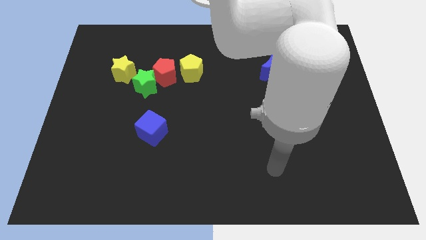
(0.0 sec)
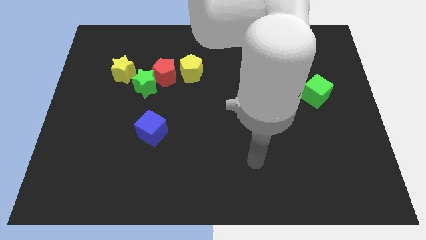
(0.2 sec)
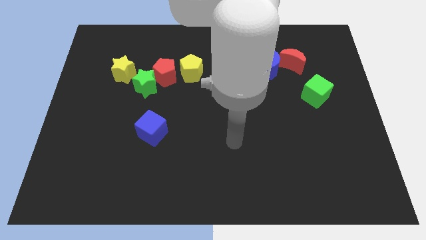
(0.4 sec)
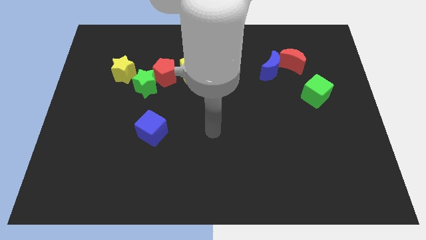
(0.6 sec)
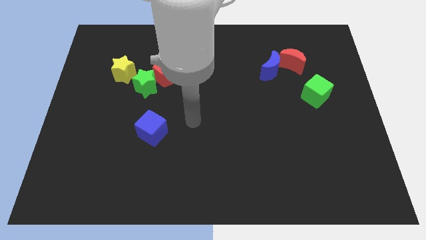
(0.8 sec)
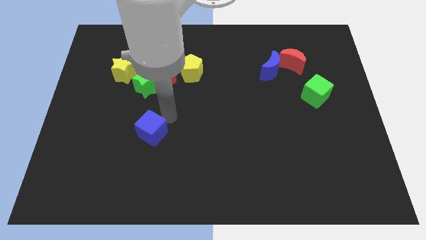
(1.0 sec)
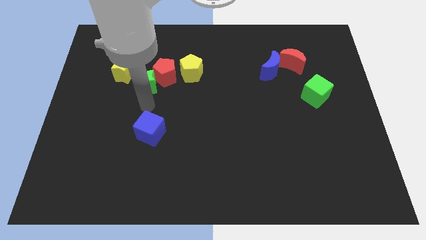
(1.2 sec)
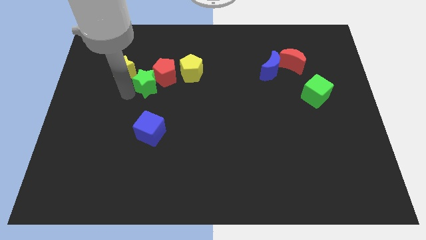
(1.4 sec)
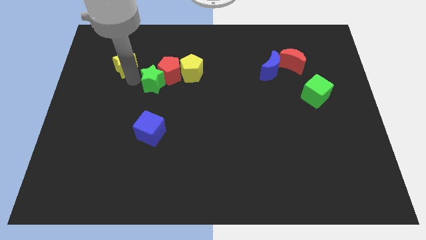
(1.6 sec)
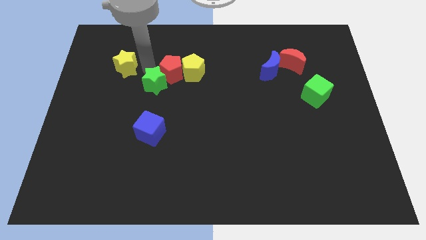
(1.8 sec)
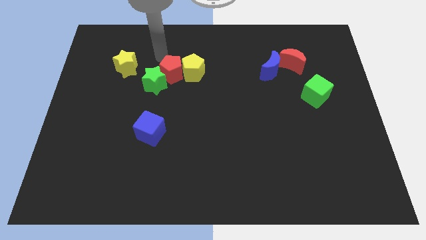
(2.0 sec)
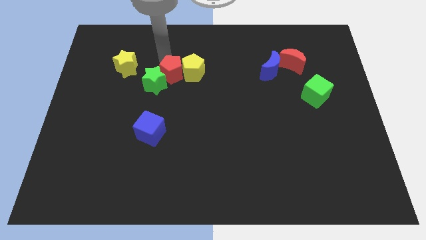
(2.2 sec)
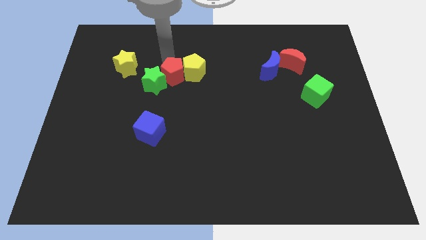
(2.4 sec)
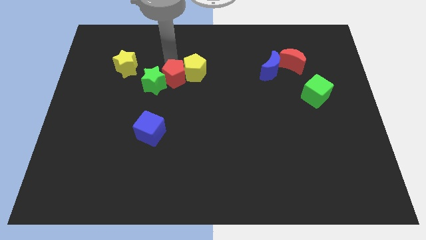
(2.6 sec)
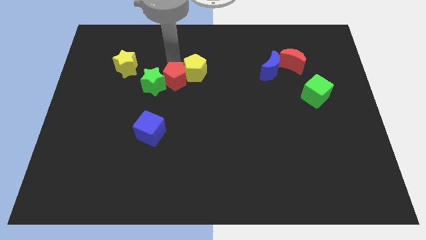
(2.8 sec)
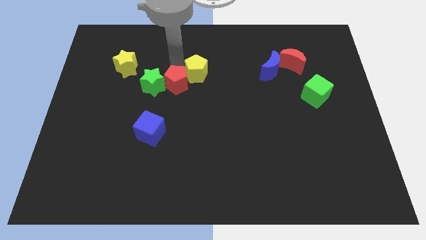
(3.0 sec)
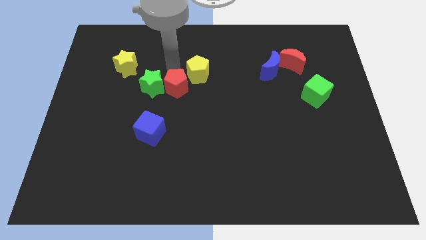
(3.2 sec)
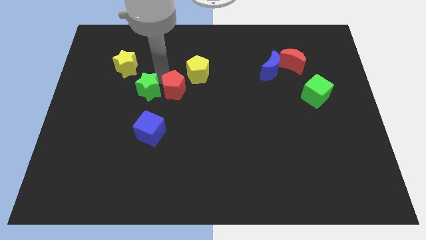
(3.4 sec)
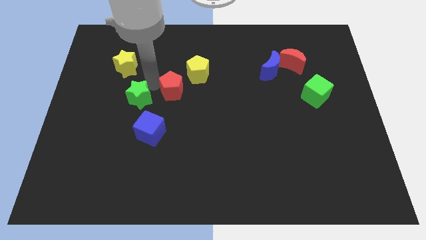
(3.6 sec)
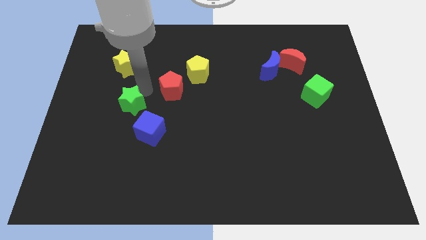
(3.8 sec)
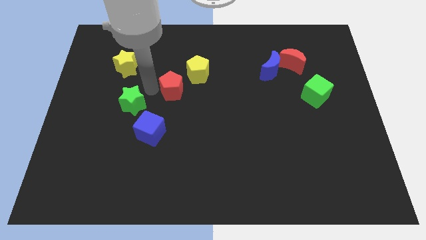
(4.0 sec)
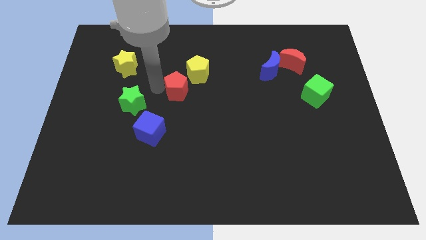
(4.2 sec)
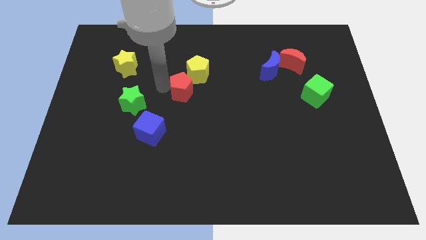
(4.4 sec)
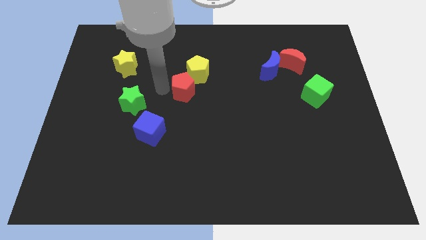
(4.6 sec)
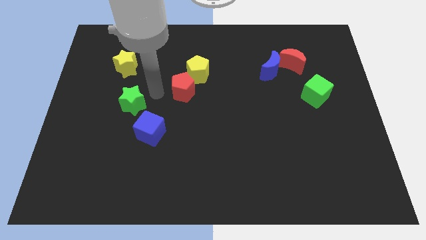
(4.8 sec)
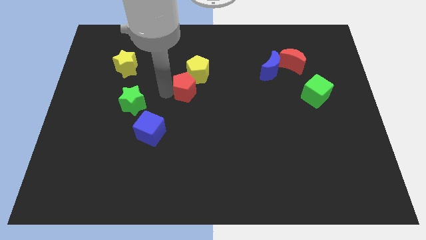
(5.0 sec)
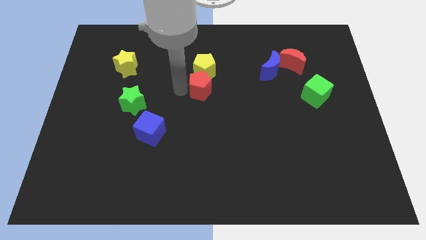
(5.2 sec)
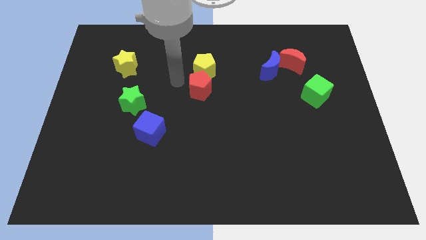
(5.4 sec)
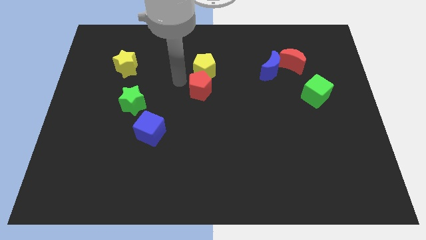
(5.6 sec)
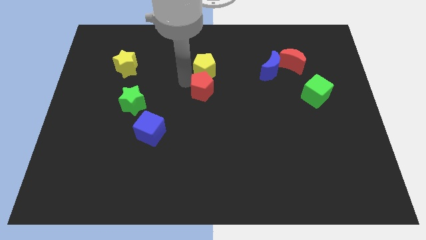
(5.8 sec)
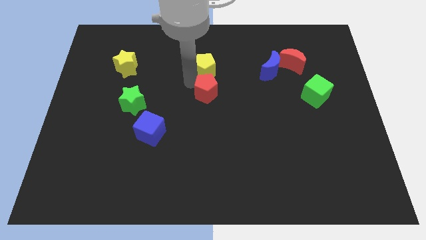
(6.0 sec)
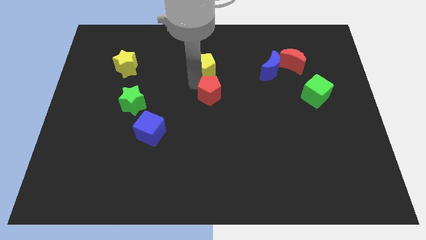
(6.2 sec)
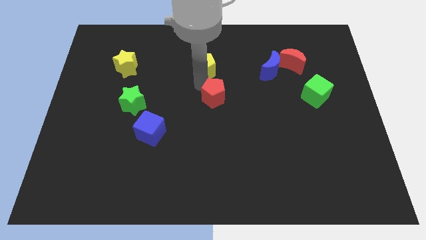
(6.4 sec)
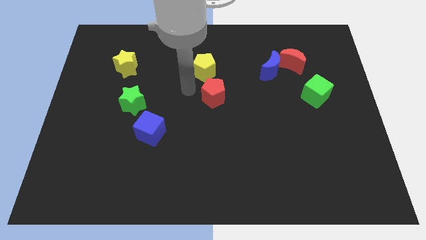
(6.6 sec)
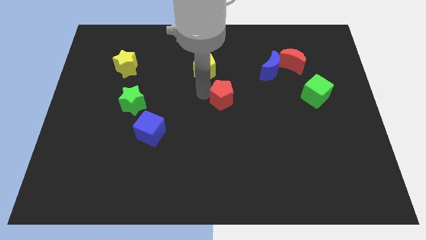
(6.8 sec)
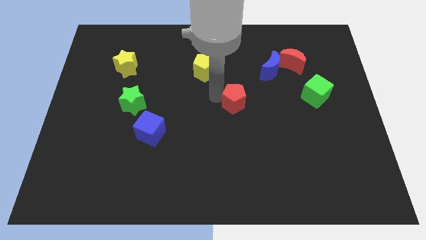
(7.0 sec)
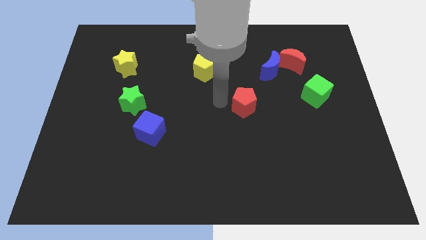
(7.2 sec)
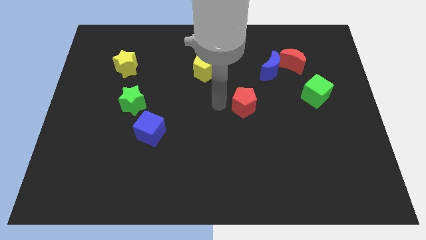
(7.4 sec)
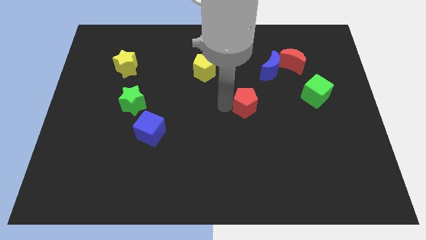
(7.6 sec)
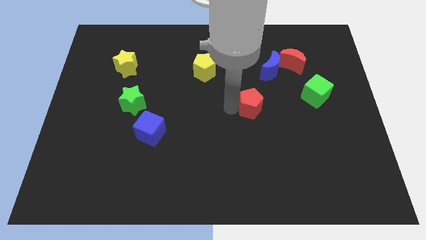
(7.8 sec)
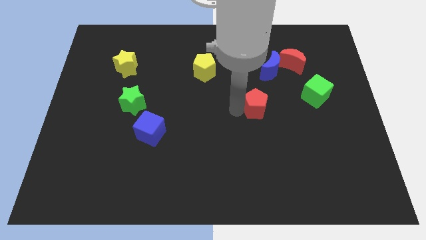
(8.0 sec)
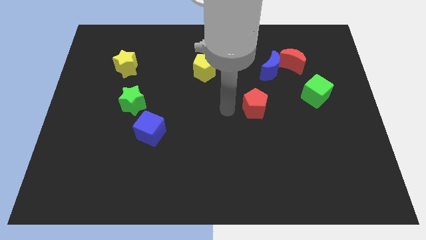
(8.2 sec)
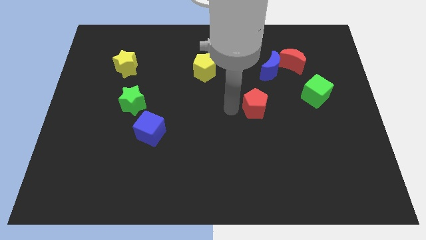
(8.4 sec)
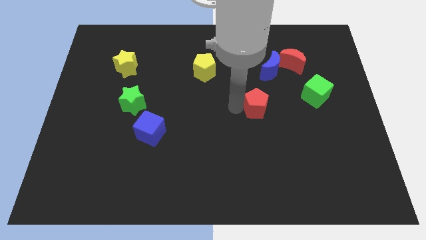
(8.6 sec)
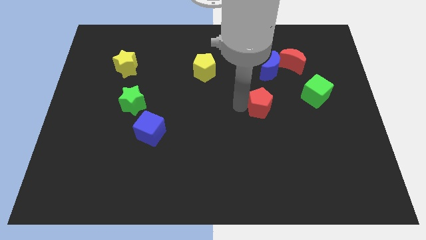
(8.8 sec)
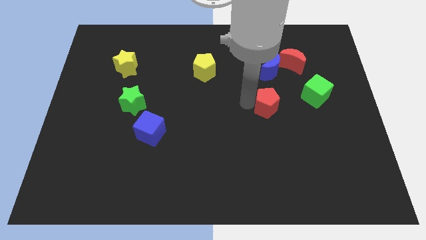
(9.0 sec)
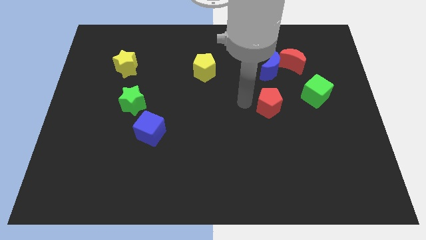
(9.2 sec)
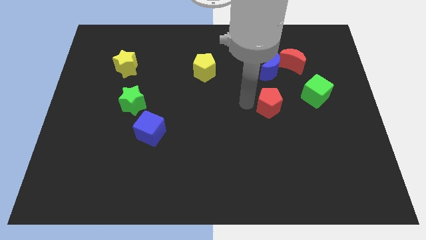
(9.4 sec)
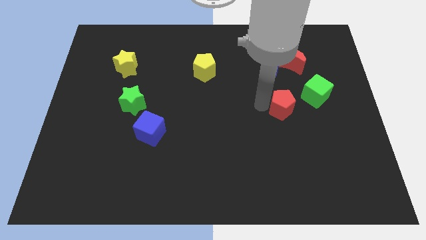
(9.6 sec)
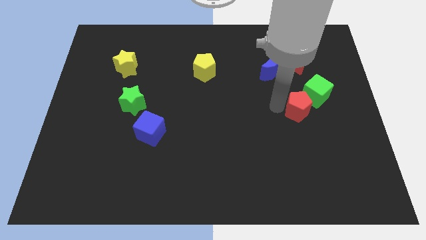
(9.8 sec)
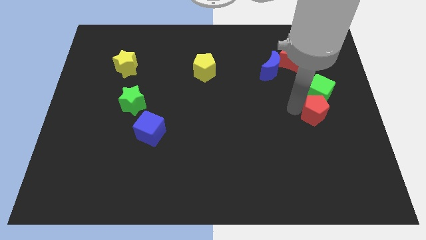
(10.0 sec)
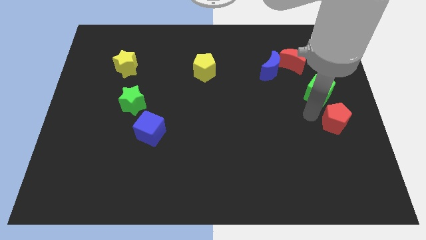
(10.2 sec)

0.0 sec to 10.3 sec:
put the red pentagon to the right side of the board
